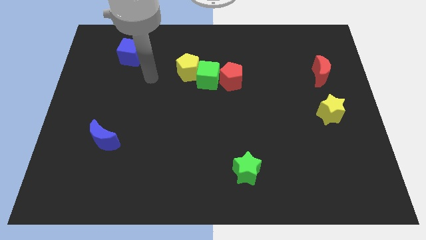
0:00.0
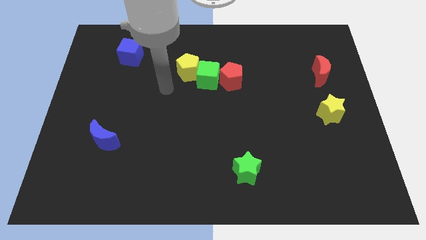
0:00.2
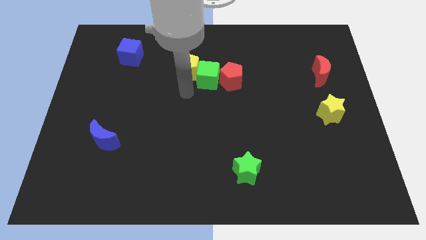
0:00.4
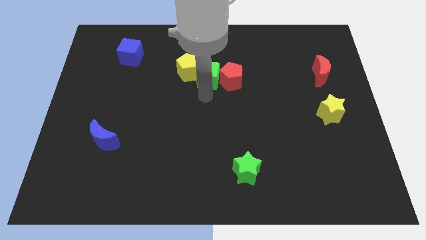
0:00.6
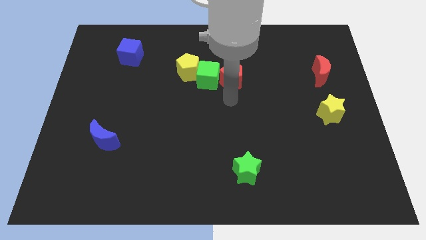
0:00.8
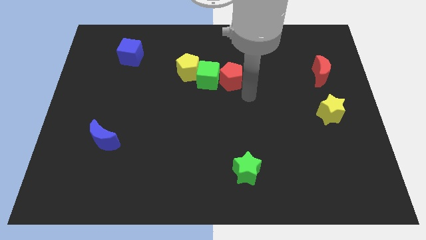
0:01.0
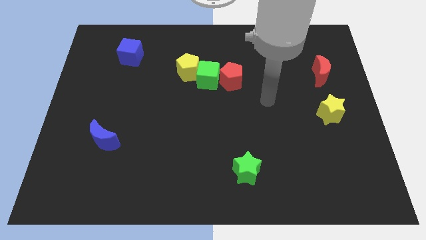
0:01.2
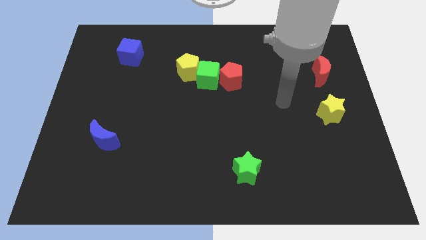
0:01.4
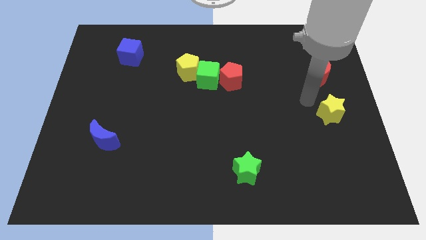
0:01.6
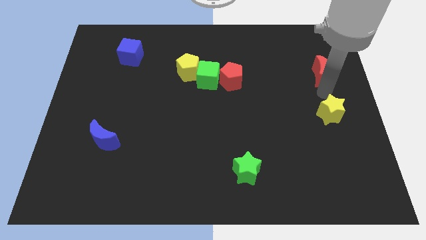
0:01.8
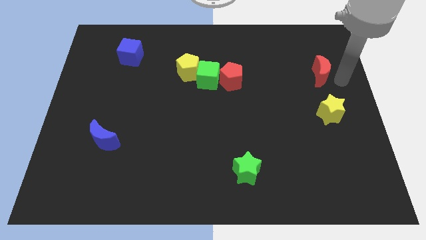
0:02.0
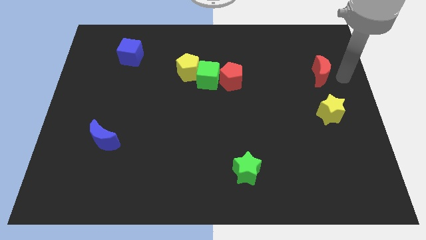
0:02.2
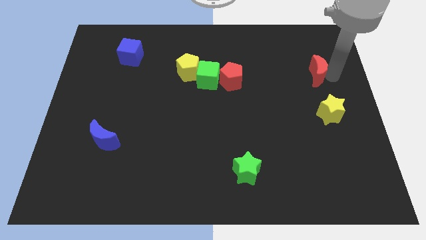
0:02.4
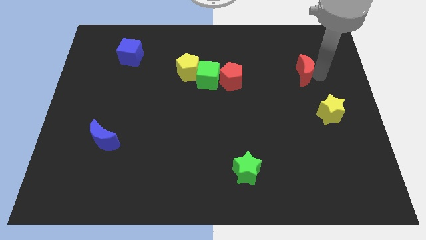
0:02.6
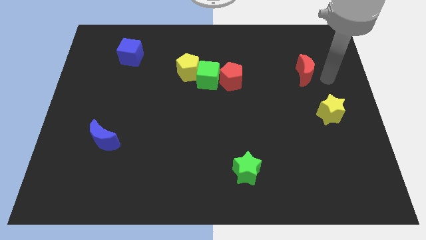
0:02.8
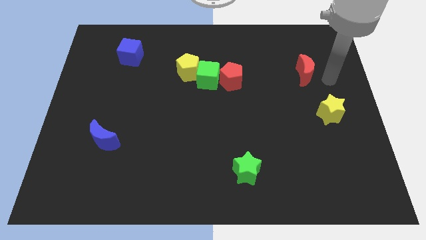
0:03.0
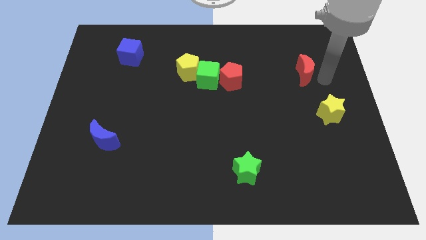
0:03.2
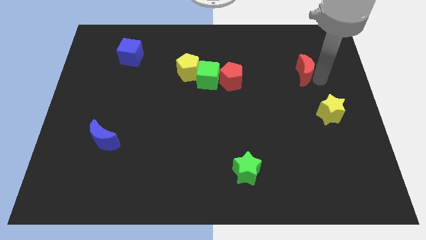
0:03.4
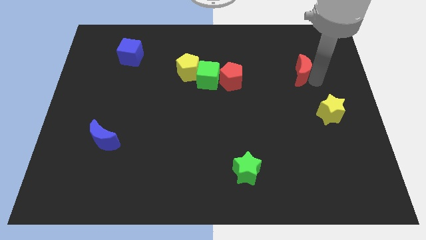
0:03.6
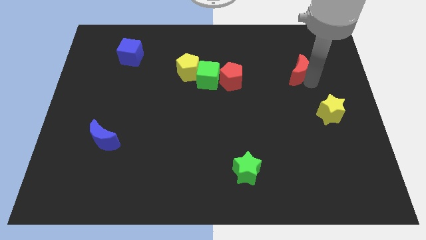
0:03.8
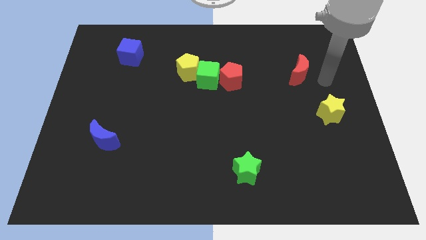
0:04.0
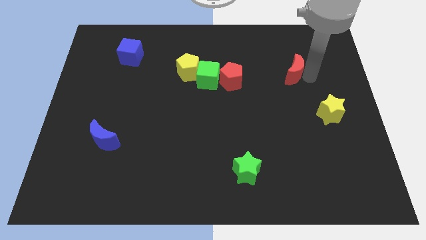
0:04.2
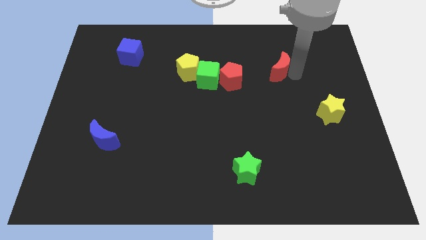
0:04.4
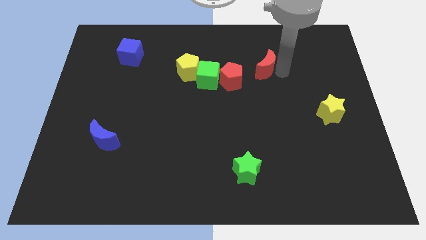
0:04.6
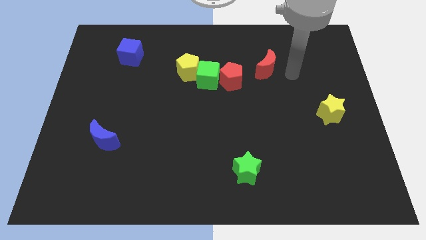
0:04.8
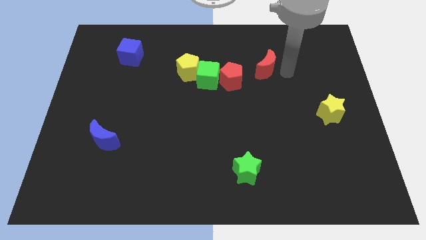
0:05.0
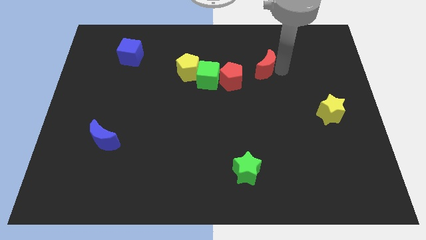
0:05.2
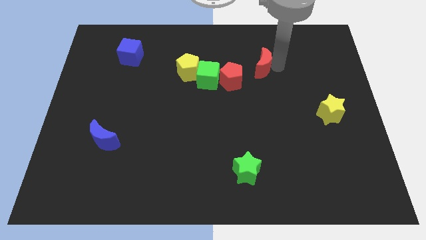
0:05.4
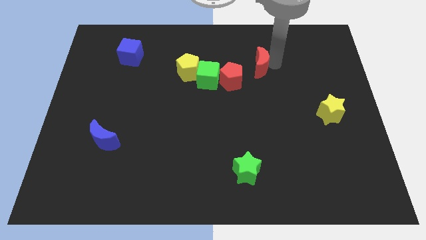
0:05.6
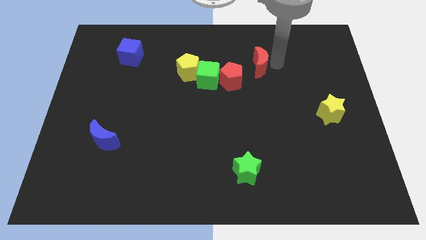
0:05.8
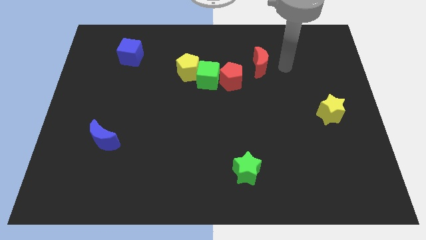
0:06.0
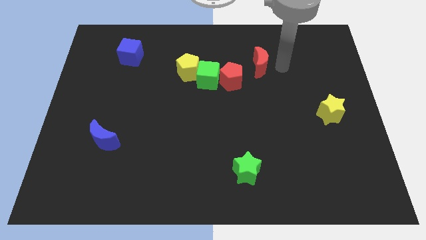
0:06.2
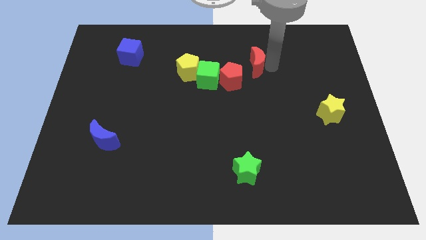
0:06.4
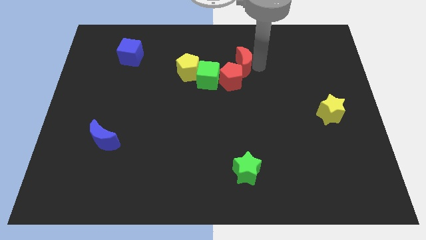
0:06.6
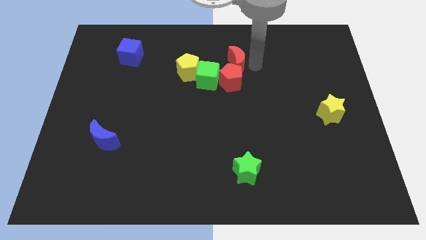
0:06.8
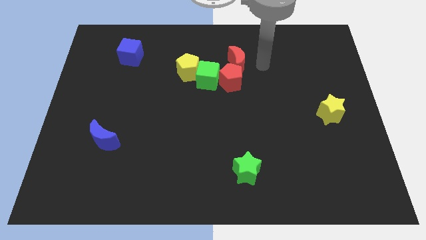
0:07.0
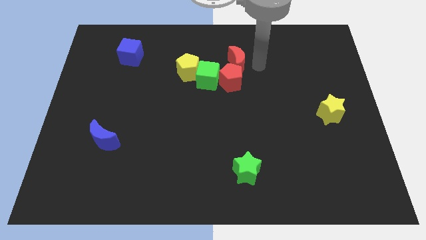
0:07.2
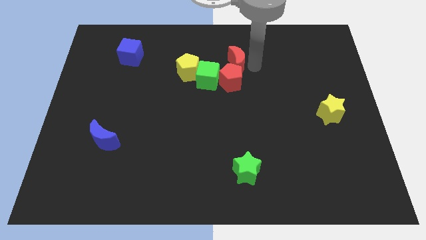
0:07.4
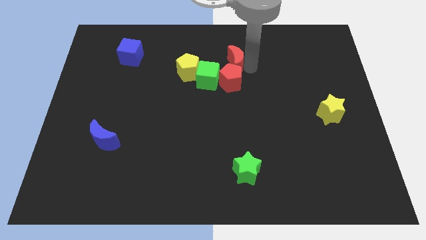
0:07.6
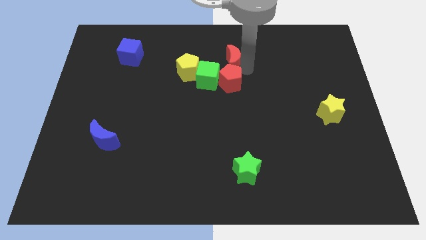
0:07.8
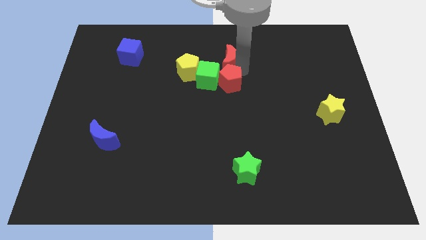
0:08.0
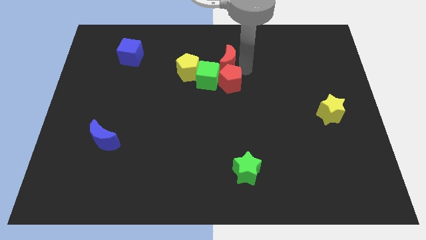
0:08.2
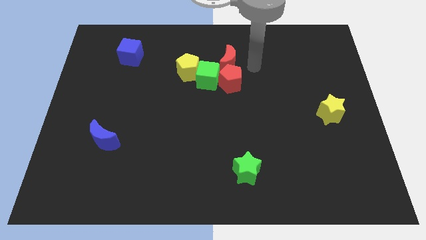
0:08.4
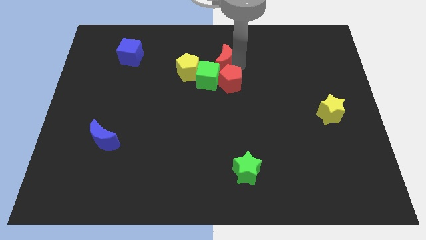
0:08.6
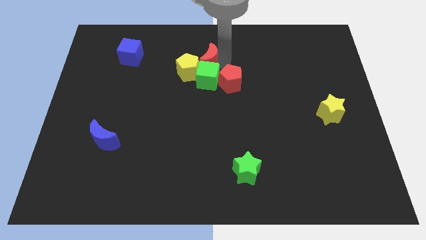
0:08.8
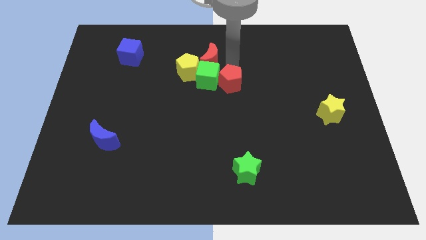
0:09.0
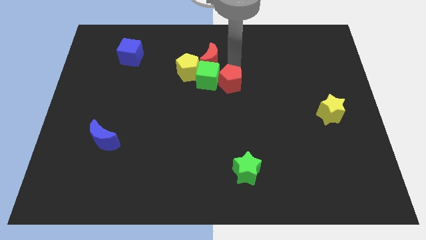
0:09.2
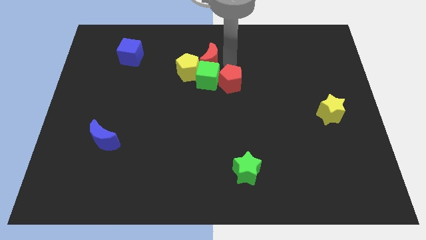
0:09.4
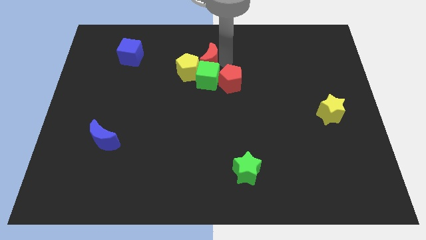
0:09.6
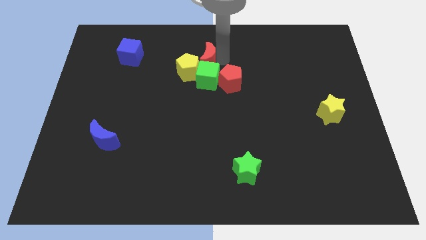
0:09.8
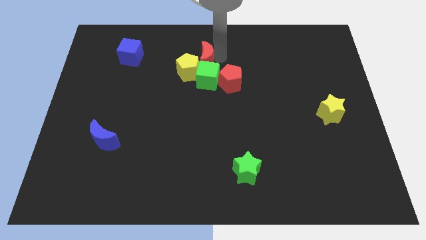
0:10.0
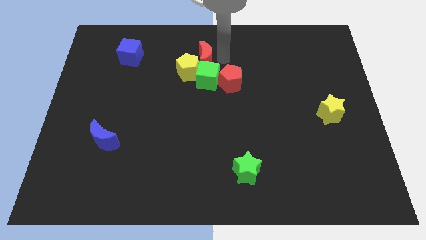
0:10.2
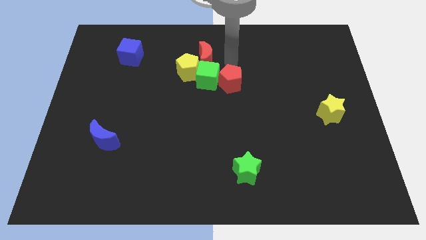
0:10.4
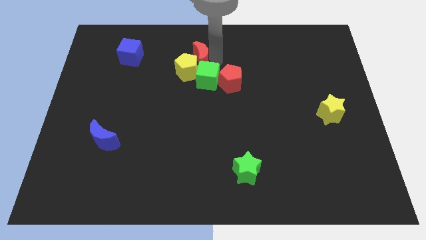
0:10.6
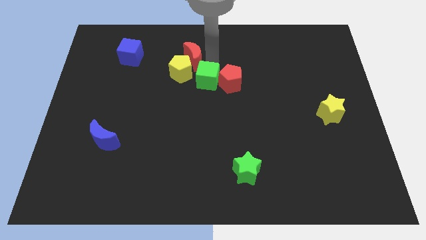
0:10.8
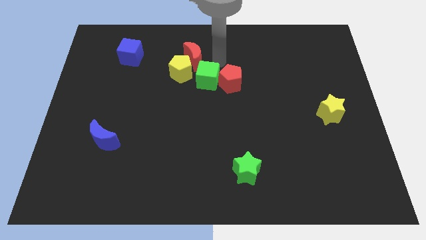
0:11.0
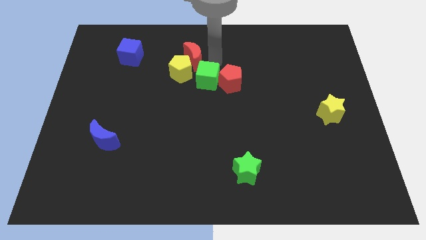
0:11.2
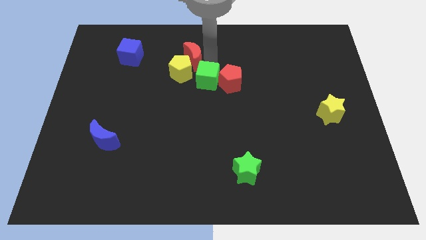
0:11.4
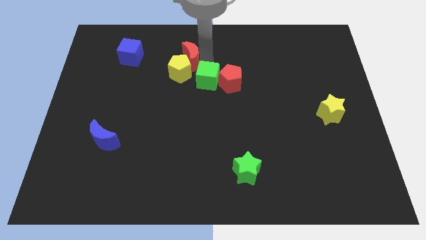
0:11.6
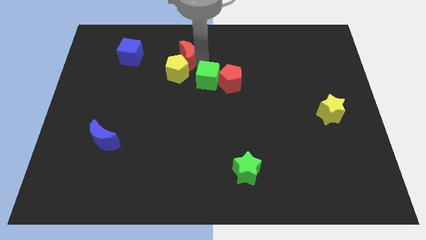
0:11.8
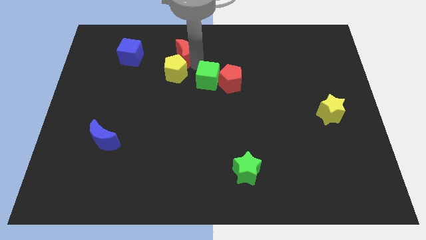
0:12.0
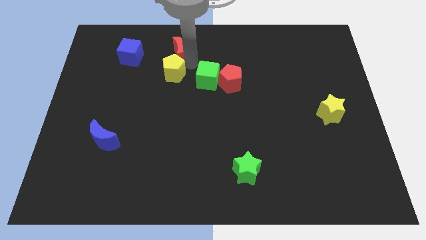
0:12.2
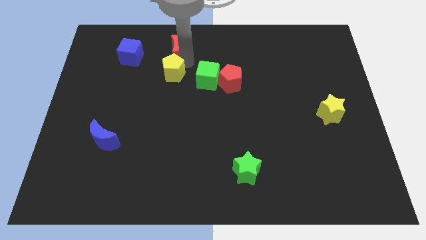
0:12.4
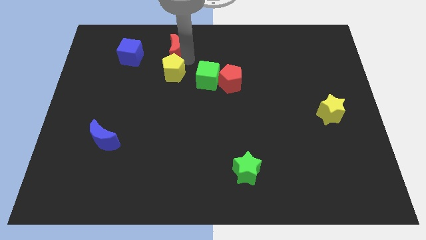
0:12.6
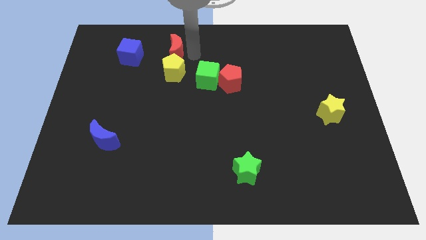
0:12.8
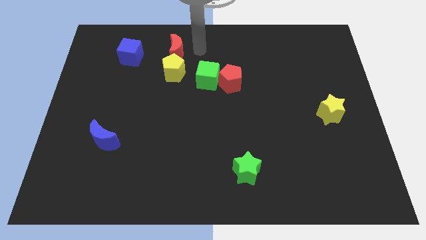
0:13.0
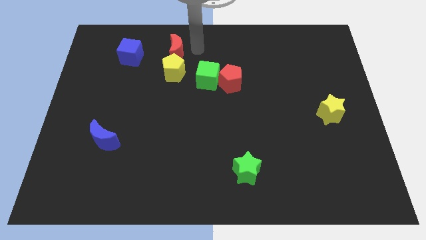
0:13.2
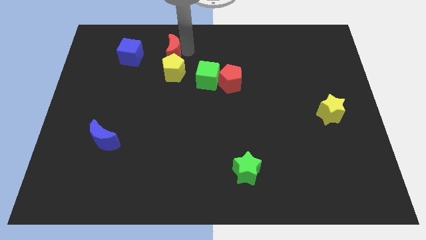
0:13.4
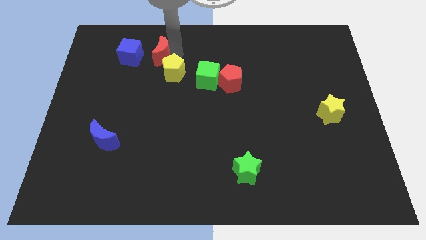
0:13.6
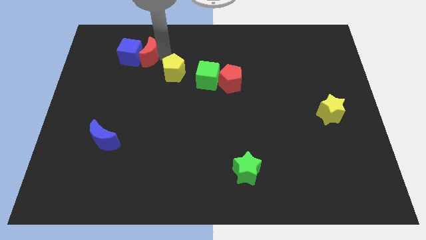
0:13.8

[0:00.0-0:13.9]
move the red moon towards the blue cube

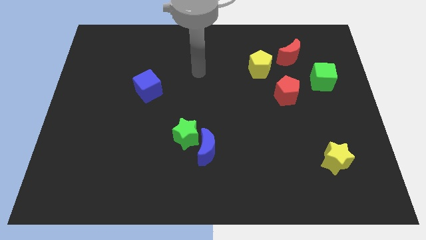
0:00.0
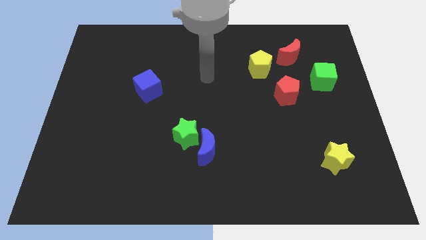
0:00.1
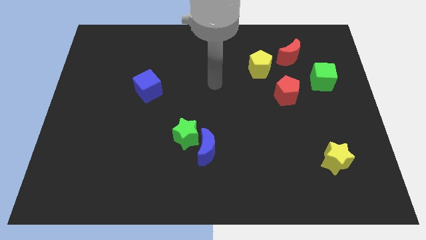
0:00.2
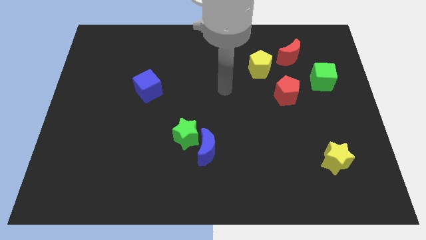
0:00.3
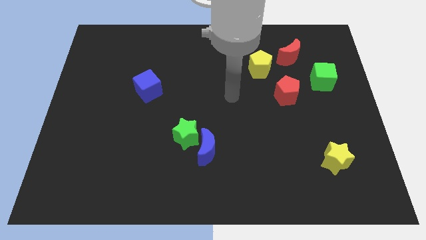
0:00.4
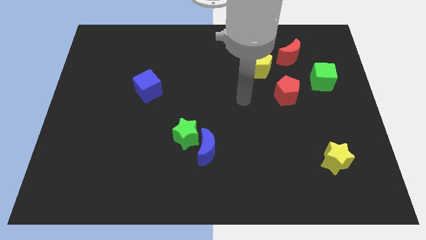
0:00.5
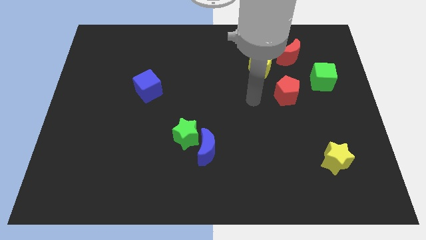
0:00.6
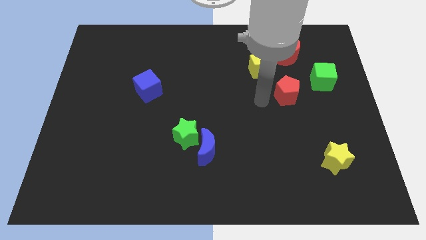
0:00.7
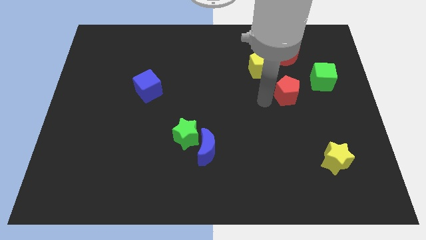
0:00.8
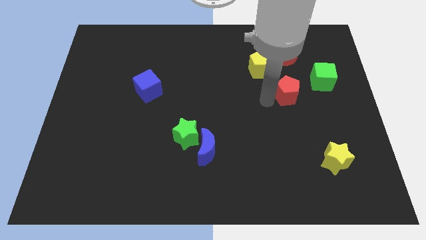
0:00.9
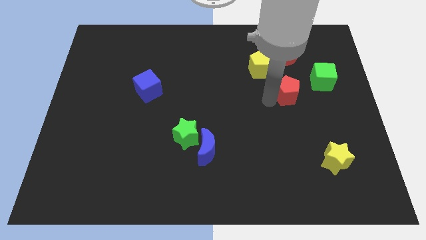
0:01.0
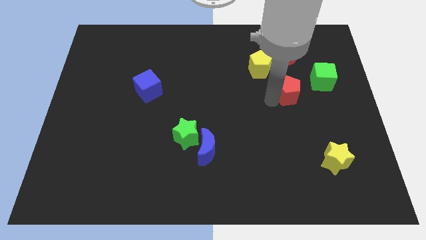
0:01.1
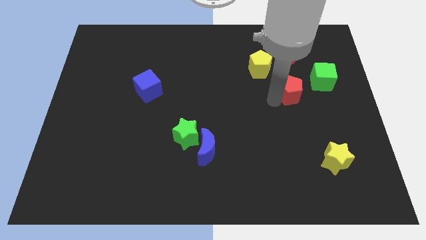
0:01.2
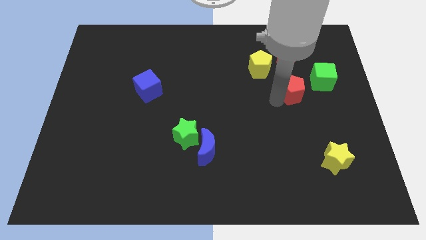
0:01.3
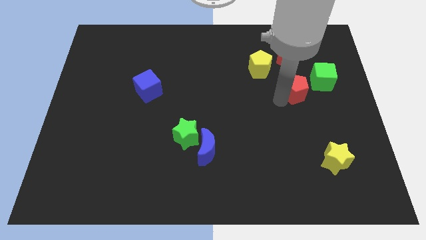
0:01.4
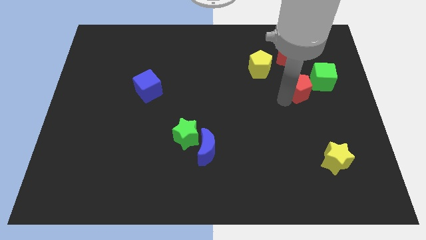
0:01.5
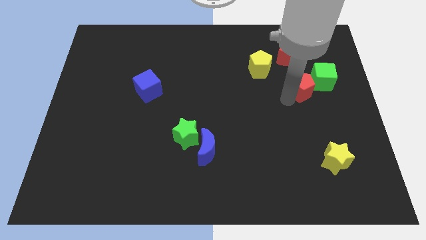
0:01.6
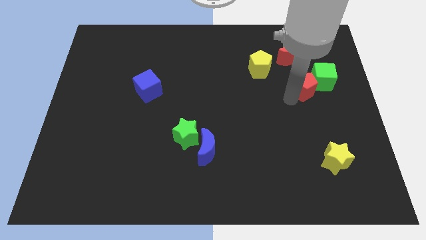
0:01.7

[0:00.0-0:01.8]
push the red pentagon close to the green cube
